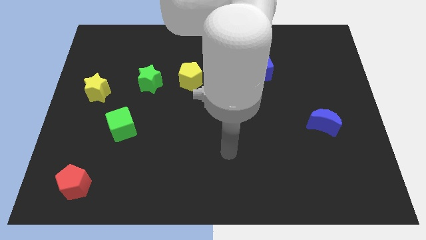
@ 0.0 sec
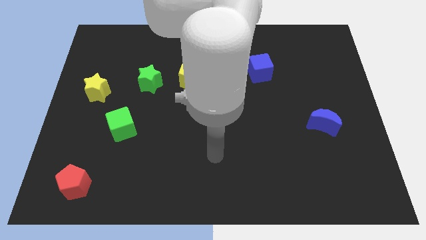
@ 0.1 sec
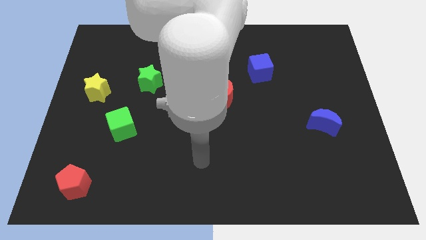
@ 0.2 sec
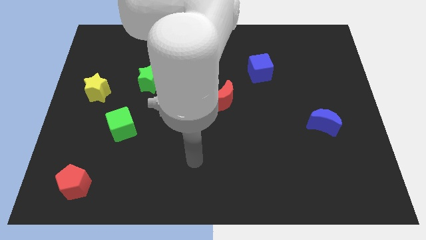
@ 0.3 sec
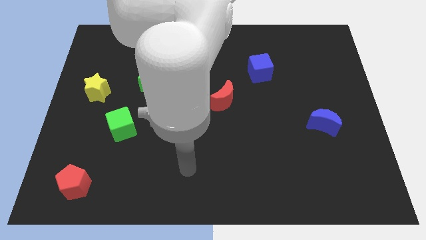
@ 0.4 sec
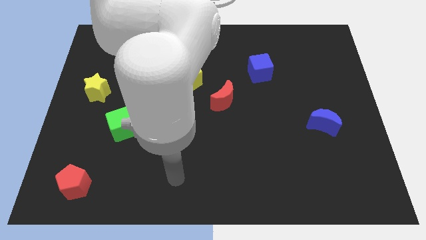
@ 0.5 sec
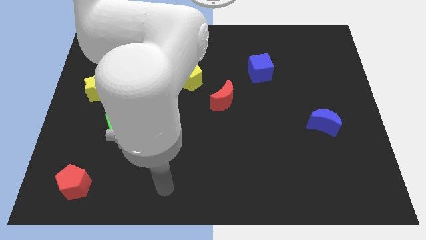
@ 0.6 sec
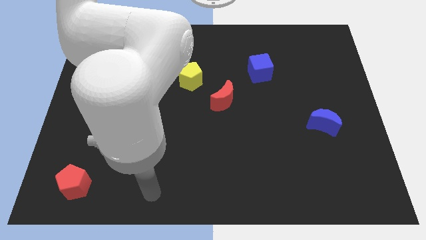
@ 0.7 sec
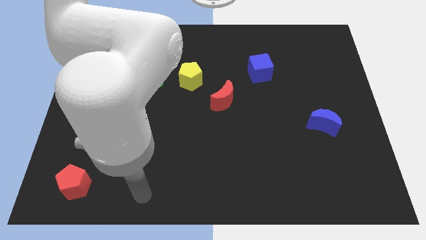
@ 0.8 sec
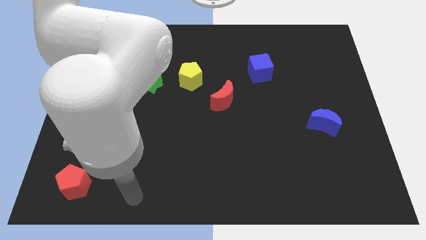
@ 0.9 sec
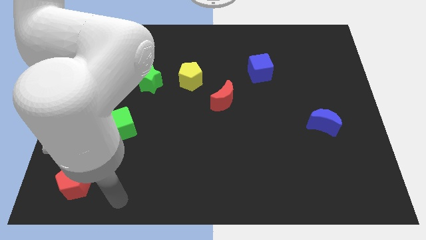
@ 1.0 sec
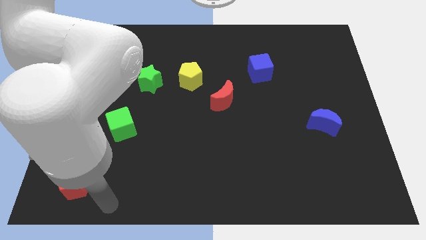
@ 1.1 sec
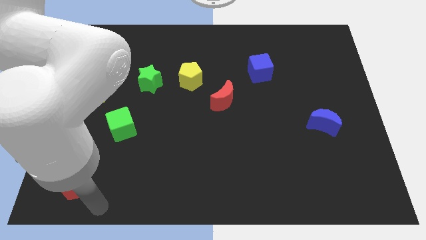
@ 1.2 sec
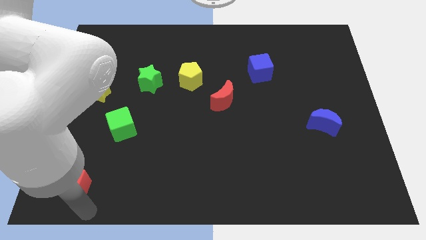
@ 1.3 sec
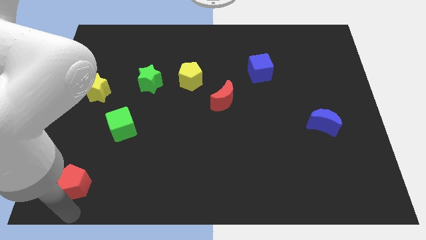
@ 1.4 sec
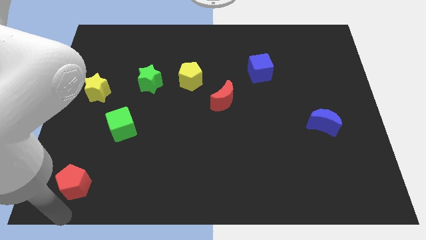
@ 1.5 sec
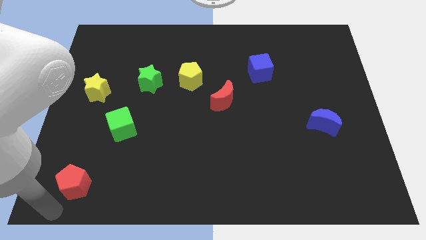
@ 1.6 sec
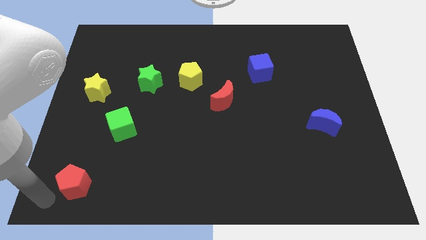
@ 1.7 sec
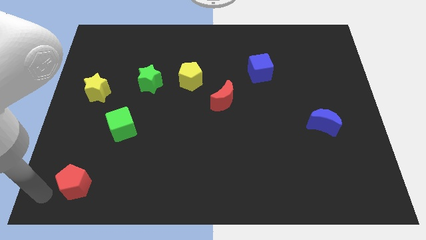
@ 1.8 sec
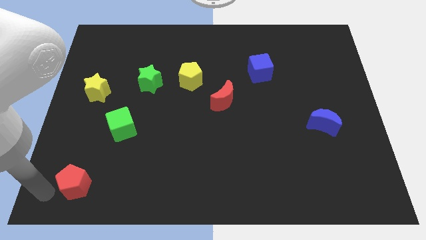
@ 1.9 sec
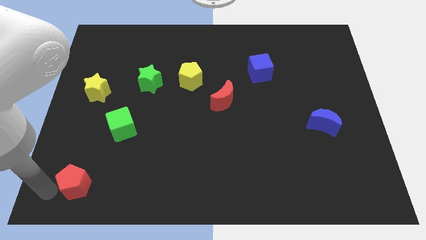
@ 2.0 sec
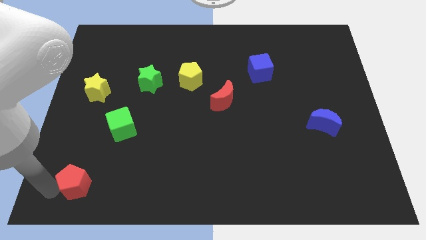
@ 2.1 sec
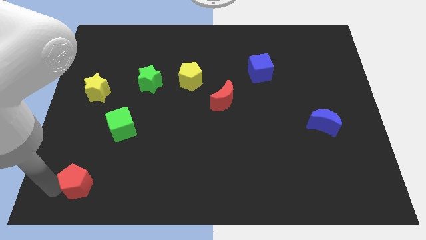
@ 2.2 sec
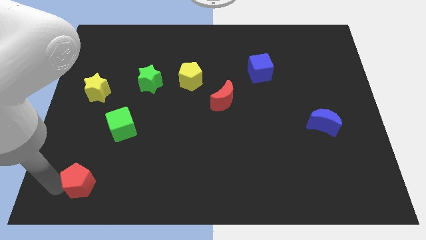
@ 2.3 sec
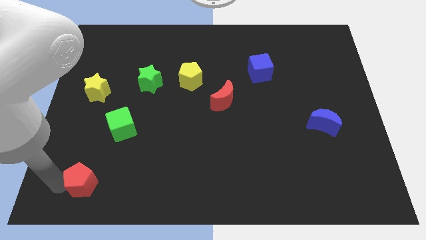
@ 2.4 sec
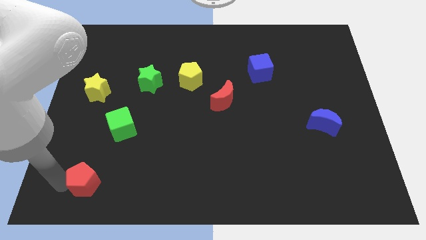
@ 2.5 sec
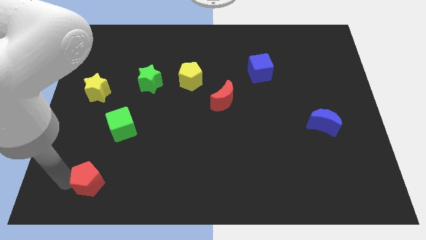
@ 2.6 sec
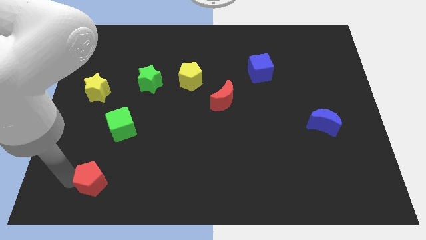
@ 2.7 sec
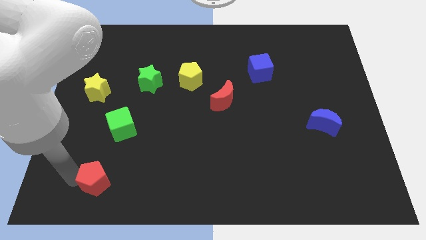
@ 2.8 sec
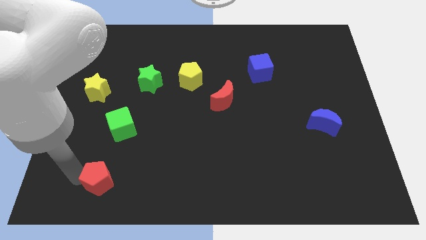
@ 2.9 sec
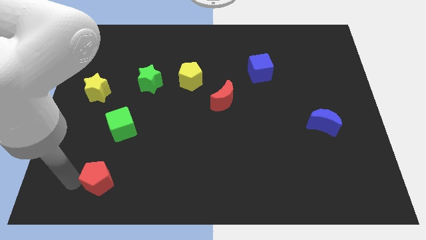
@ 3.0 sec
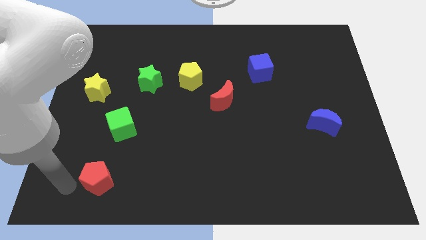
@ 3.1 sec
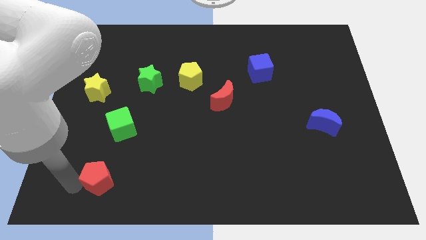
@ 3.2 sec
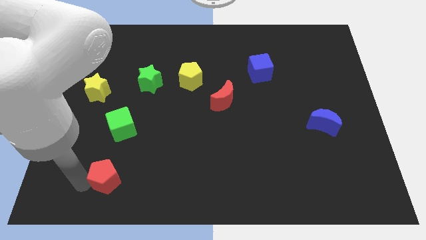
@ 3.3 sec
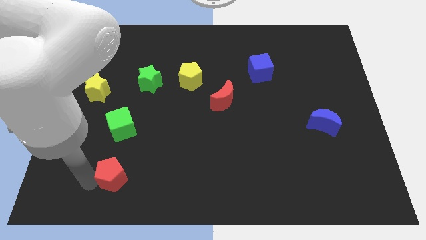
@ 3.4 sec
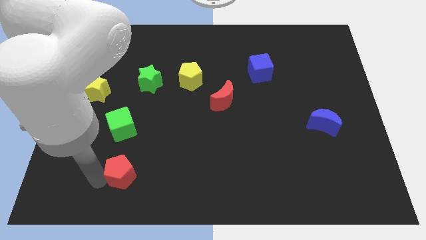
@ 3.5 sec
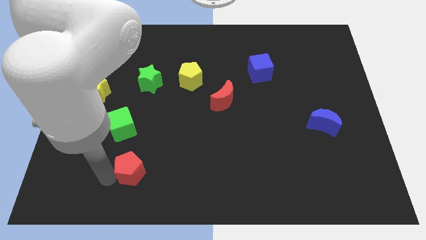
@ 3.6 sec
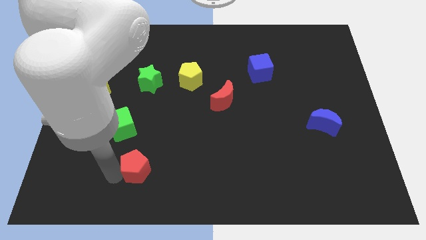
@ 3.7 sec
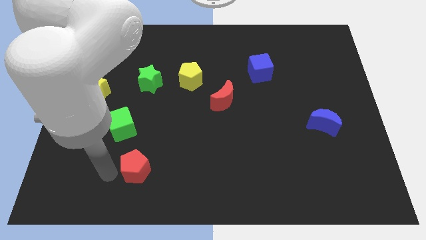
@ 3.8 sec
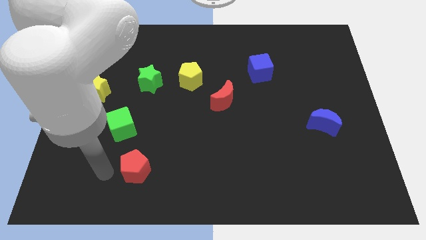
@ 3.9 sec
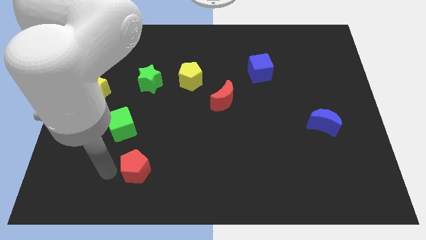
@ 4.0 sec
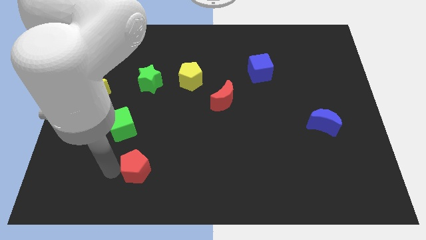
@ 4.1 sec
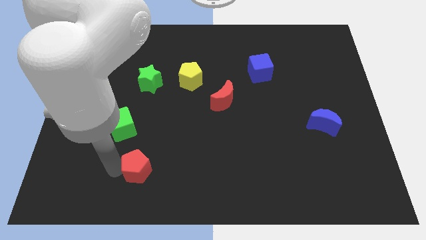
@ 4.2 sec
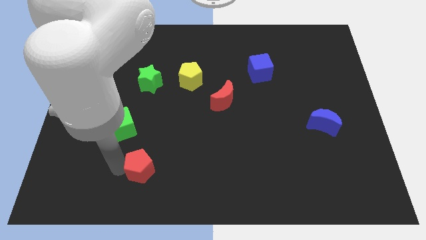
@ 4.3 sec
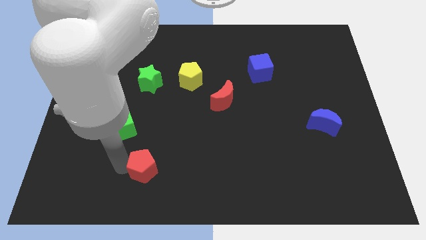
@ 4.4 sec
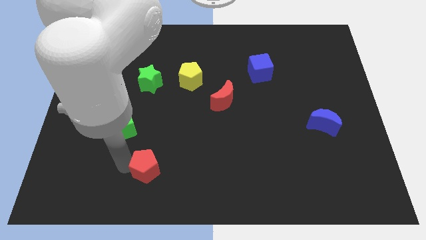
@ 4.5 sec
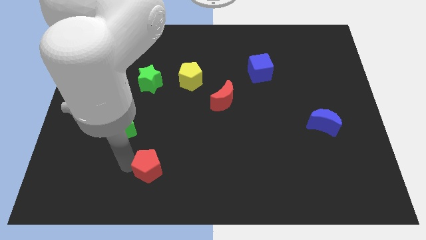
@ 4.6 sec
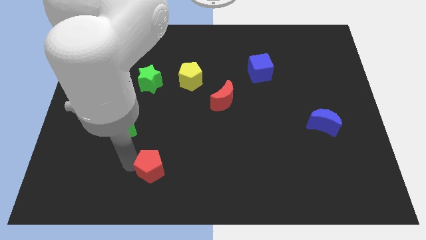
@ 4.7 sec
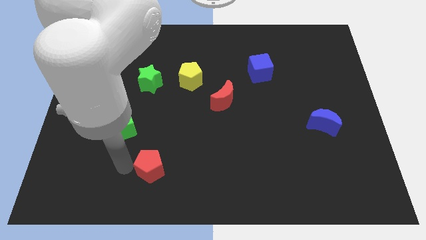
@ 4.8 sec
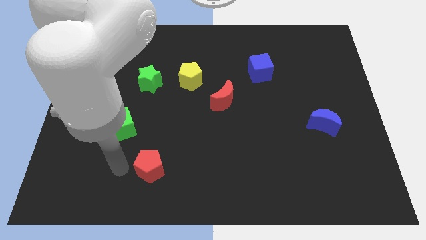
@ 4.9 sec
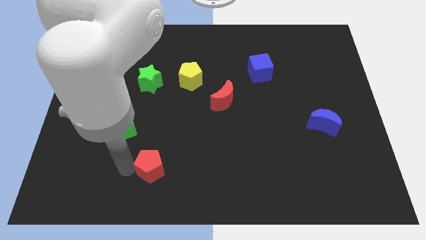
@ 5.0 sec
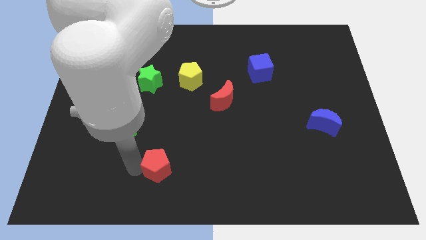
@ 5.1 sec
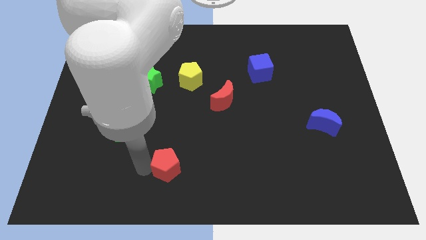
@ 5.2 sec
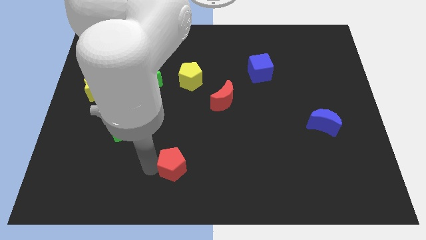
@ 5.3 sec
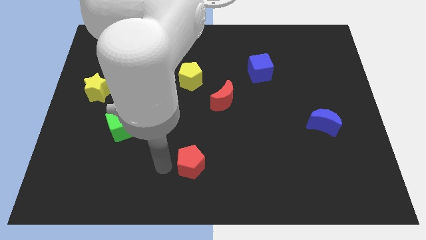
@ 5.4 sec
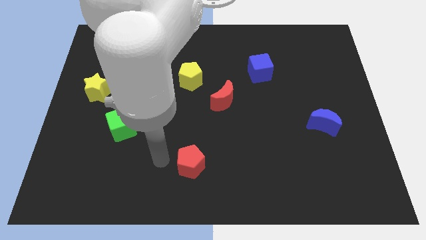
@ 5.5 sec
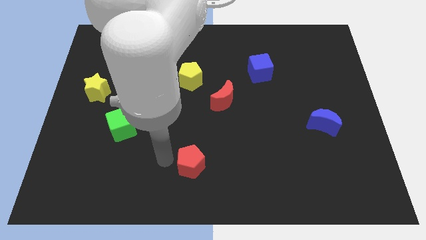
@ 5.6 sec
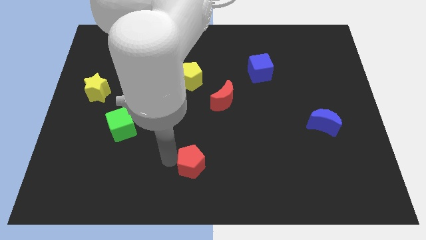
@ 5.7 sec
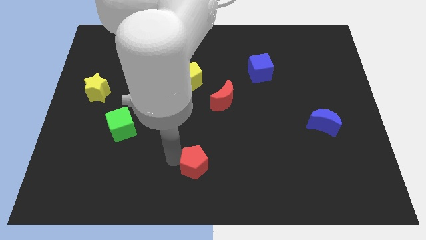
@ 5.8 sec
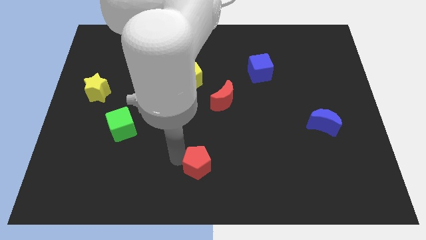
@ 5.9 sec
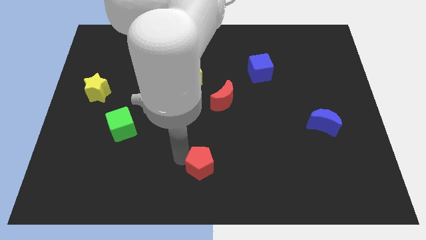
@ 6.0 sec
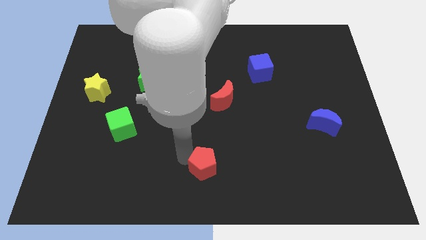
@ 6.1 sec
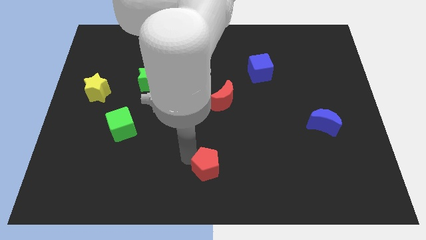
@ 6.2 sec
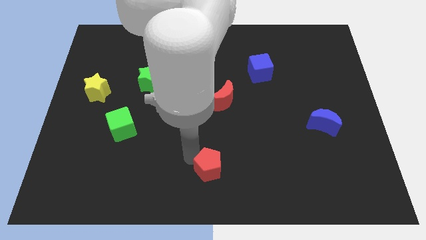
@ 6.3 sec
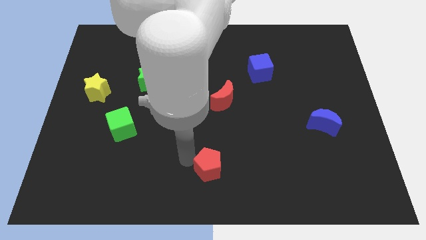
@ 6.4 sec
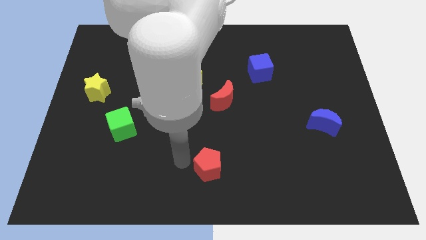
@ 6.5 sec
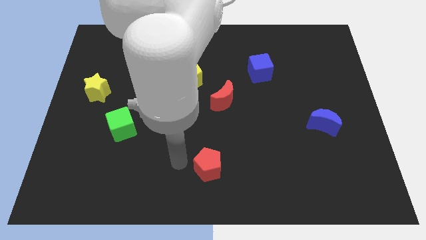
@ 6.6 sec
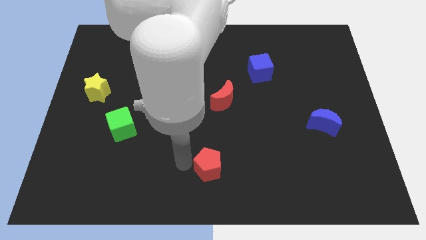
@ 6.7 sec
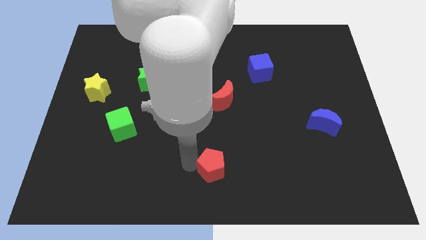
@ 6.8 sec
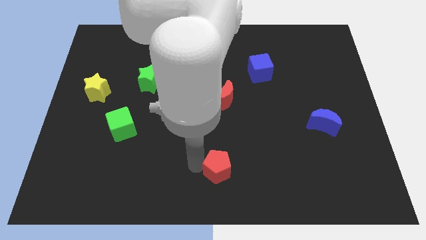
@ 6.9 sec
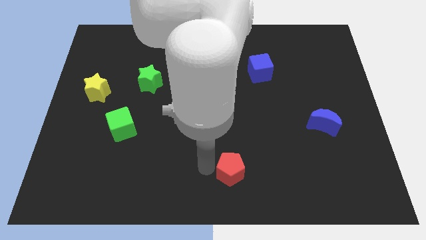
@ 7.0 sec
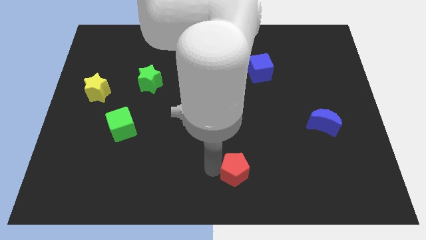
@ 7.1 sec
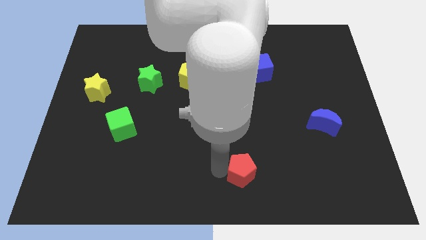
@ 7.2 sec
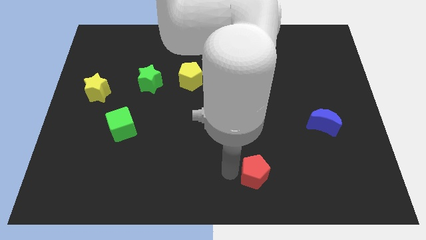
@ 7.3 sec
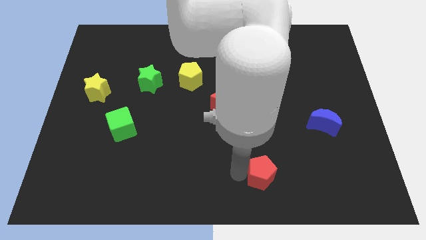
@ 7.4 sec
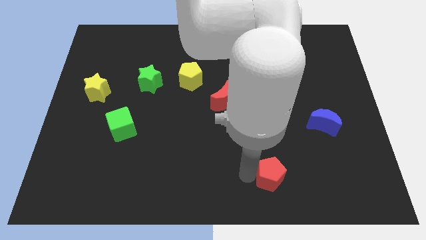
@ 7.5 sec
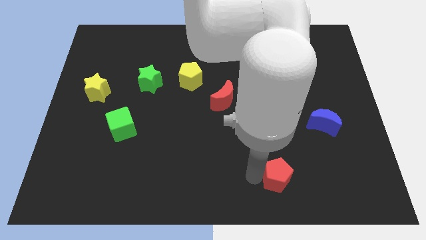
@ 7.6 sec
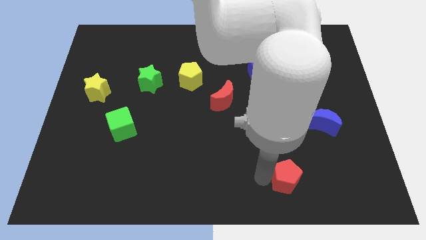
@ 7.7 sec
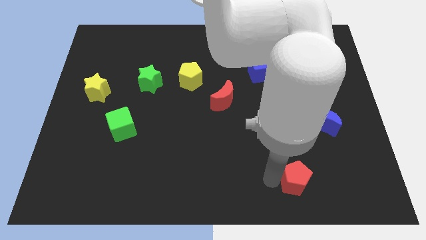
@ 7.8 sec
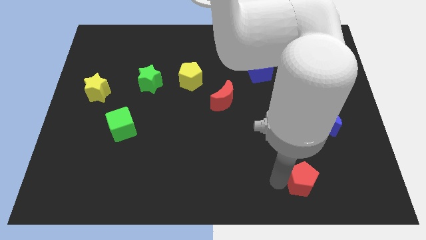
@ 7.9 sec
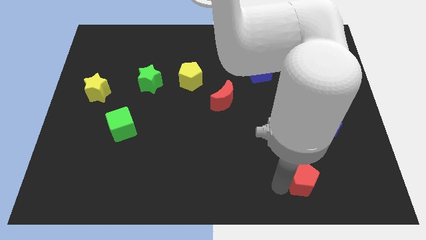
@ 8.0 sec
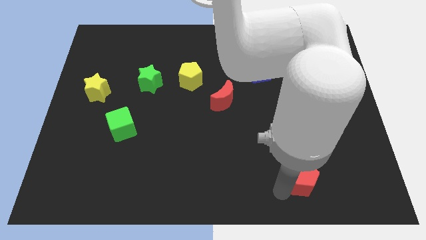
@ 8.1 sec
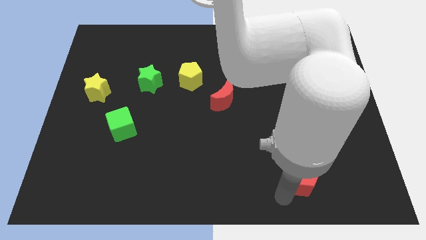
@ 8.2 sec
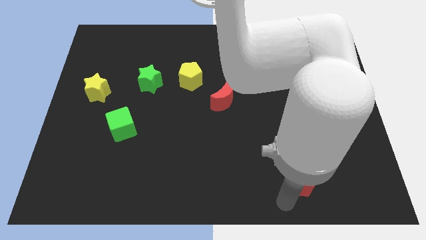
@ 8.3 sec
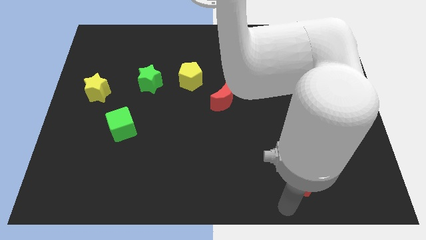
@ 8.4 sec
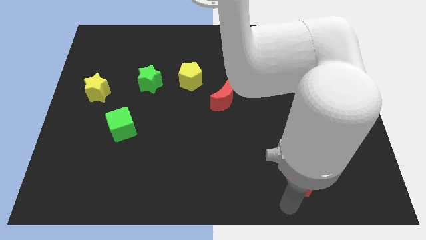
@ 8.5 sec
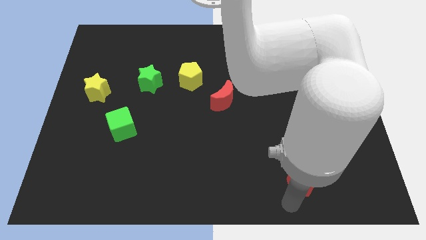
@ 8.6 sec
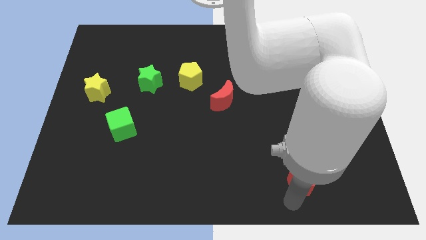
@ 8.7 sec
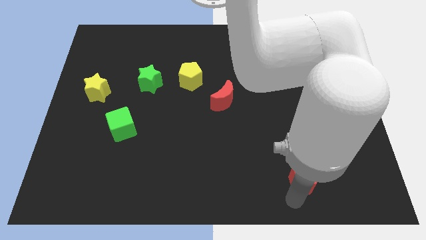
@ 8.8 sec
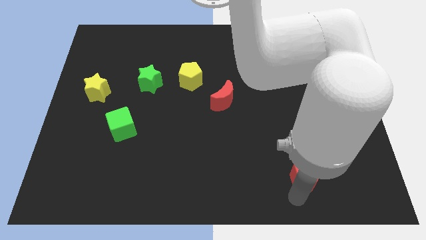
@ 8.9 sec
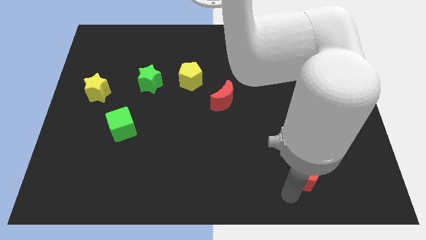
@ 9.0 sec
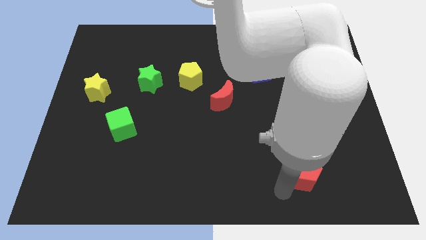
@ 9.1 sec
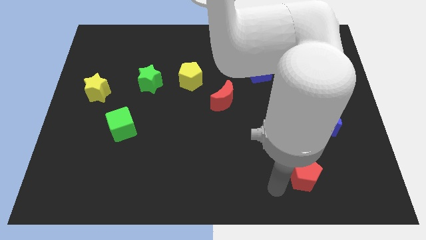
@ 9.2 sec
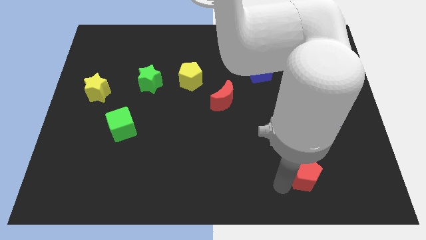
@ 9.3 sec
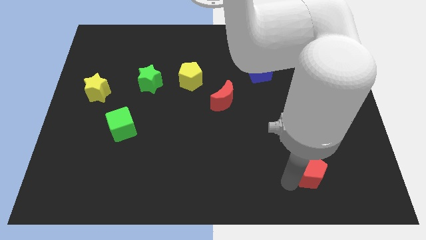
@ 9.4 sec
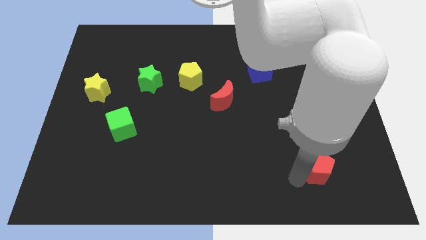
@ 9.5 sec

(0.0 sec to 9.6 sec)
put the red pentagon to the bottom side of the blue moon
